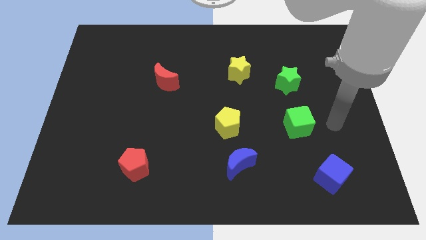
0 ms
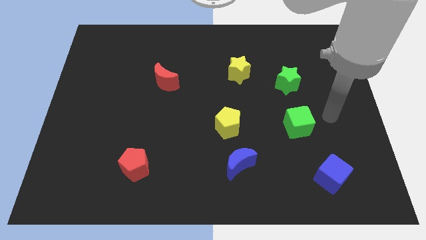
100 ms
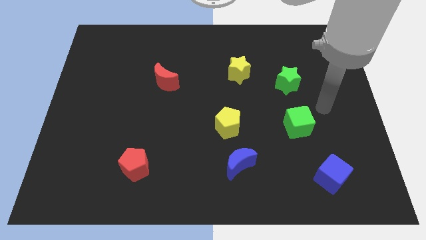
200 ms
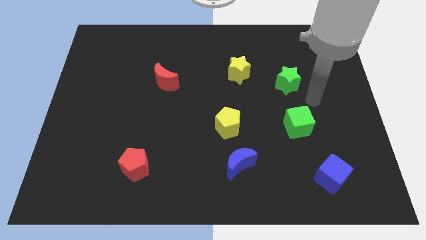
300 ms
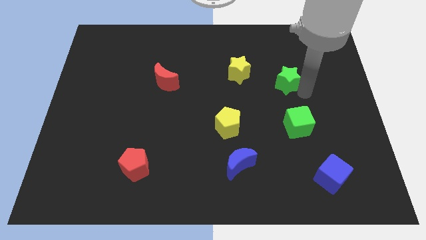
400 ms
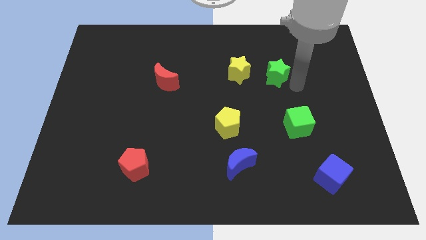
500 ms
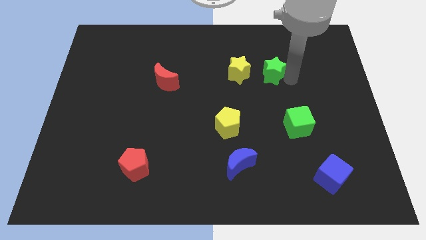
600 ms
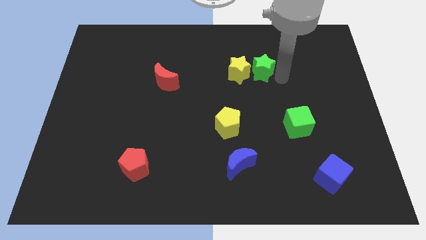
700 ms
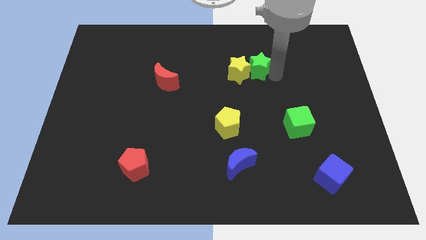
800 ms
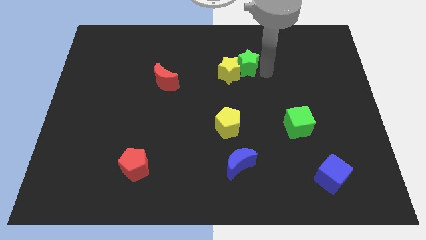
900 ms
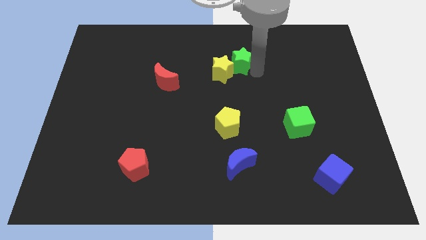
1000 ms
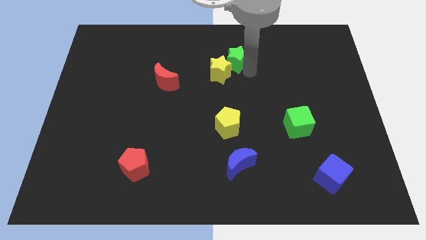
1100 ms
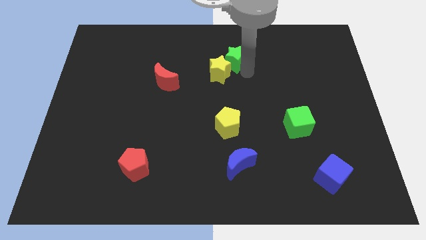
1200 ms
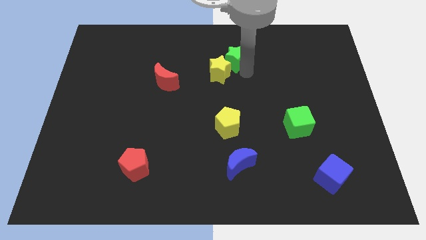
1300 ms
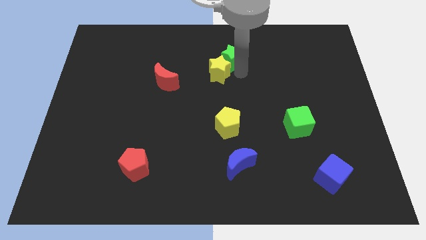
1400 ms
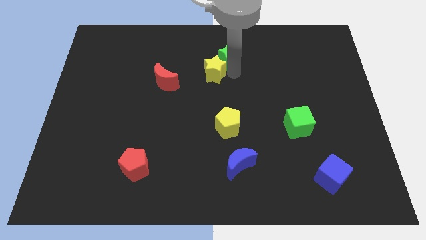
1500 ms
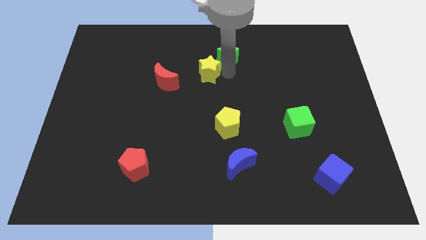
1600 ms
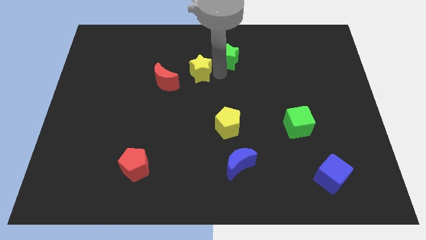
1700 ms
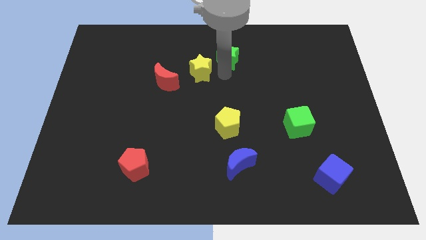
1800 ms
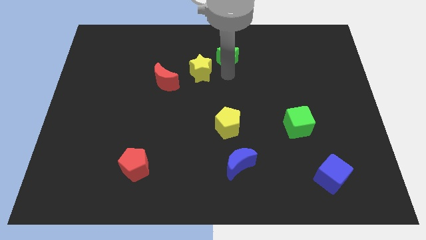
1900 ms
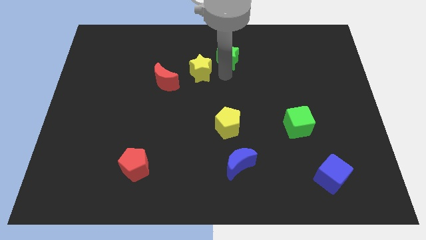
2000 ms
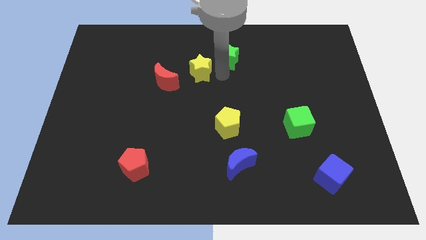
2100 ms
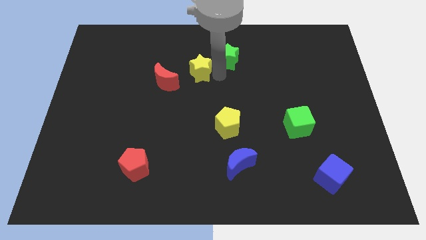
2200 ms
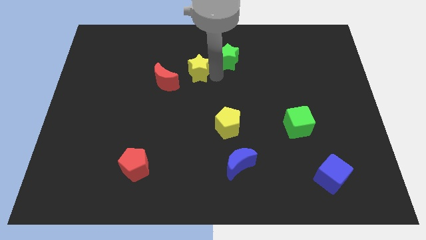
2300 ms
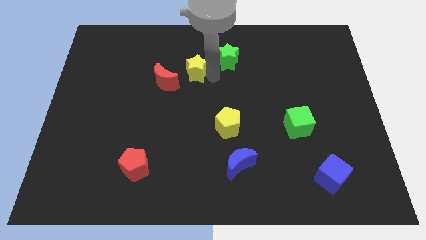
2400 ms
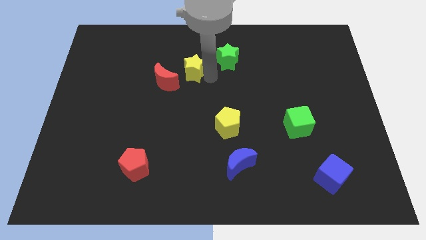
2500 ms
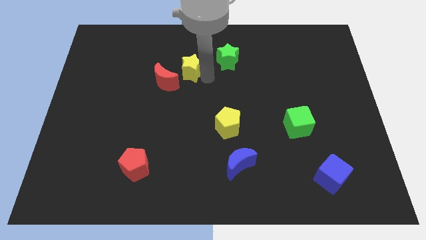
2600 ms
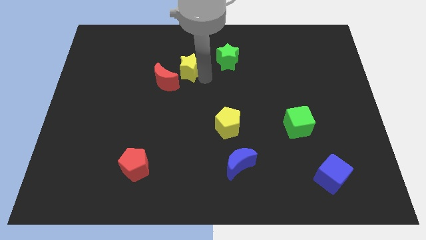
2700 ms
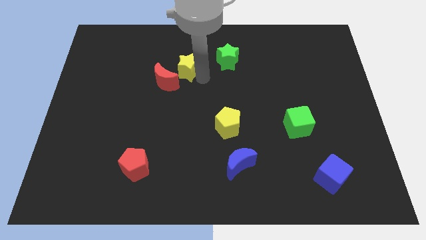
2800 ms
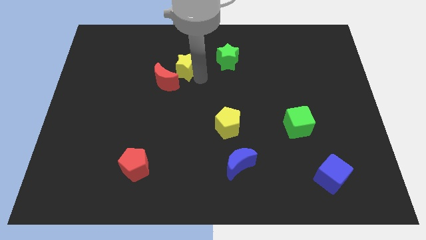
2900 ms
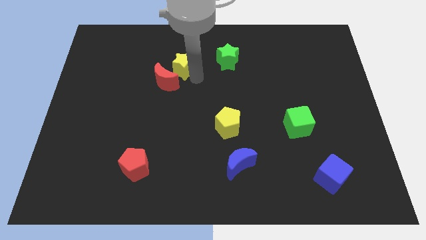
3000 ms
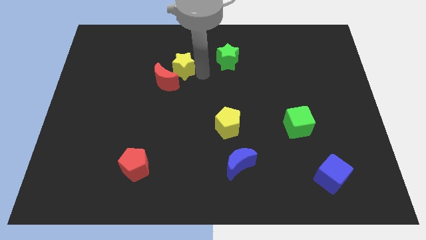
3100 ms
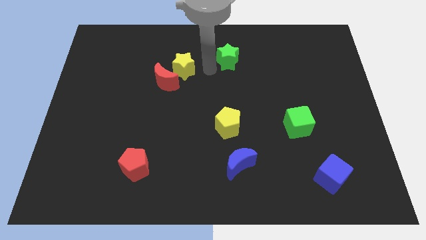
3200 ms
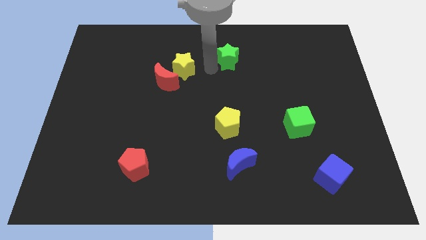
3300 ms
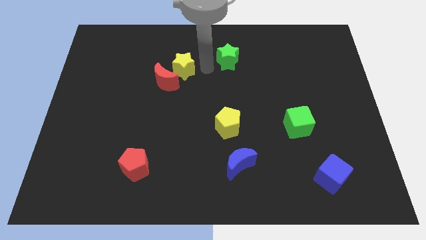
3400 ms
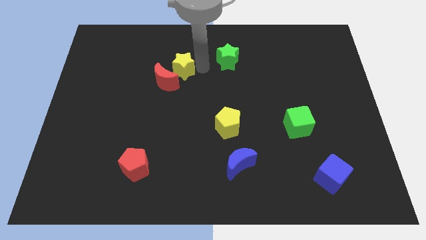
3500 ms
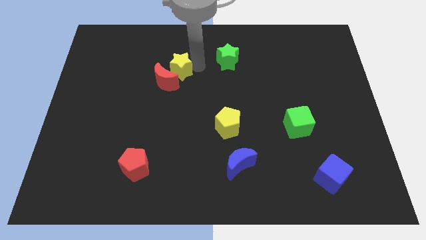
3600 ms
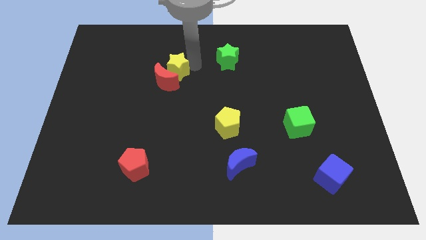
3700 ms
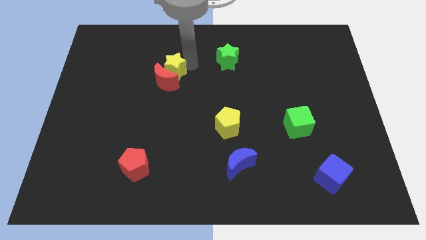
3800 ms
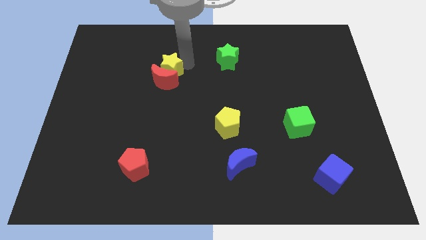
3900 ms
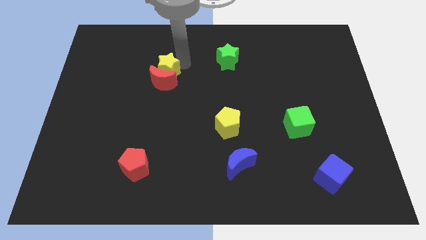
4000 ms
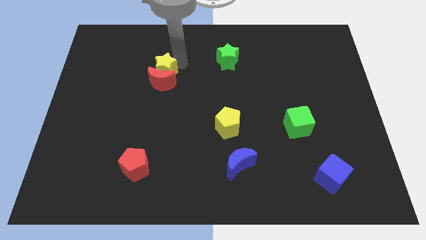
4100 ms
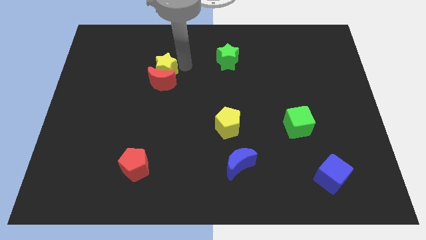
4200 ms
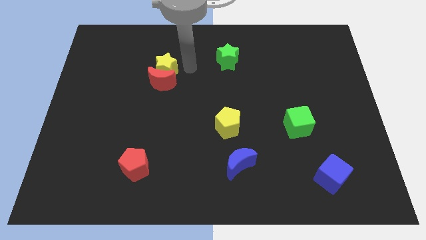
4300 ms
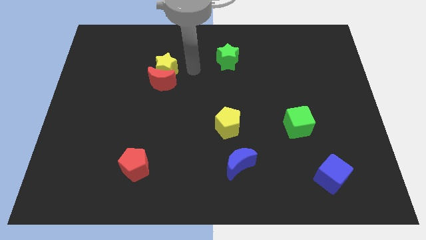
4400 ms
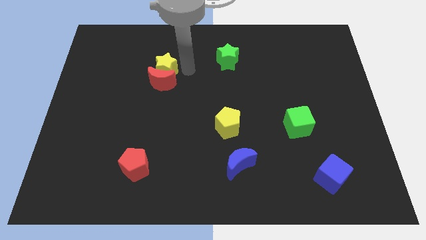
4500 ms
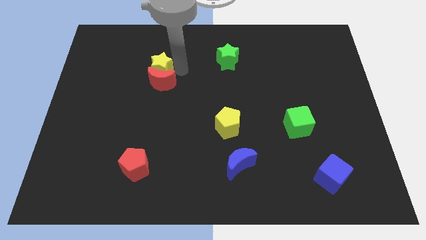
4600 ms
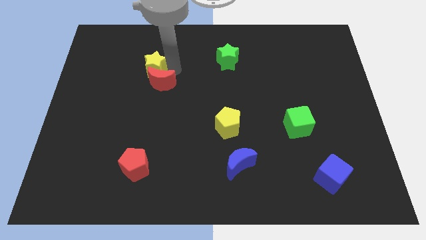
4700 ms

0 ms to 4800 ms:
push the yellow star to the left

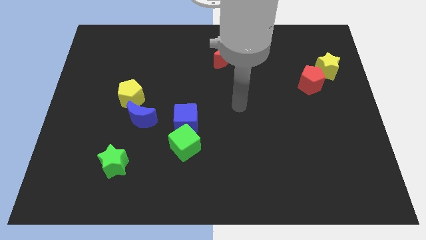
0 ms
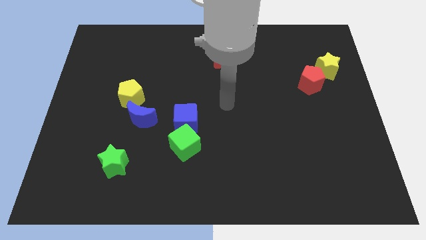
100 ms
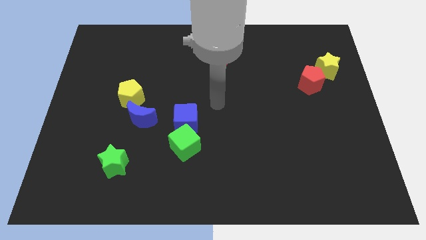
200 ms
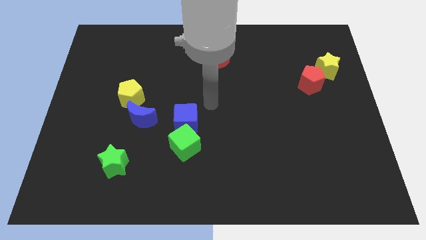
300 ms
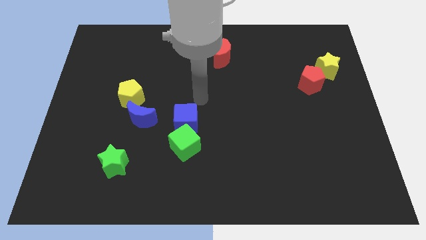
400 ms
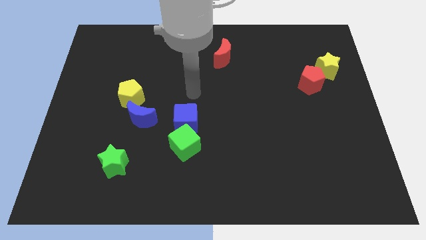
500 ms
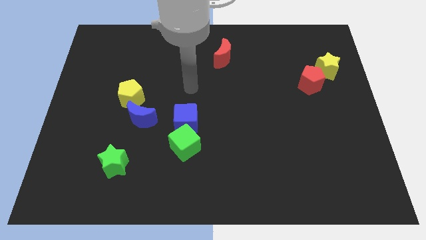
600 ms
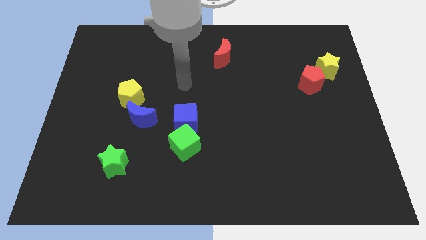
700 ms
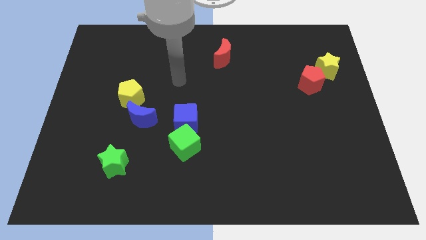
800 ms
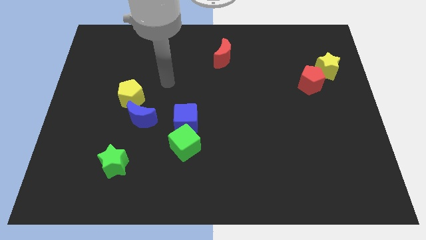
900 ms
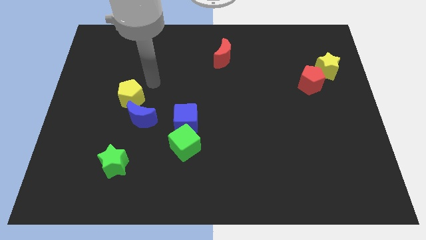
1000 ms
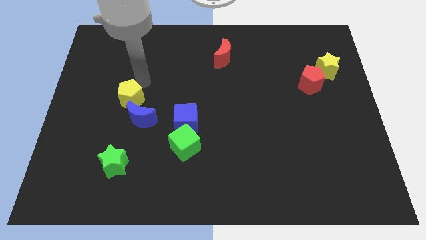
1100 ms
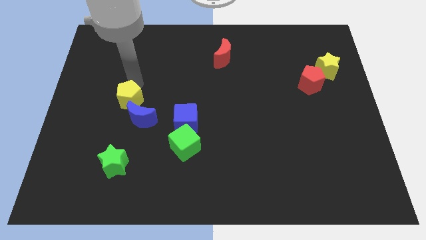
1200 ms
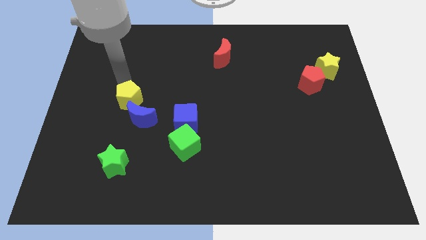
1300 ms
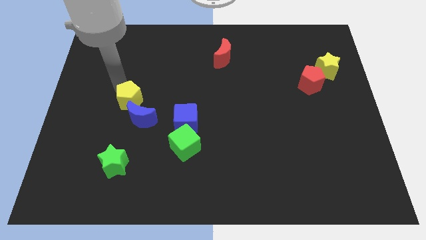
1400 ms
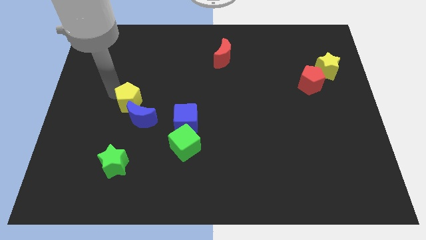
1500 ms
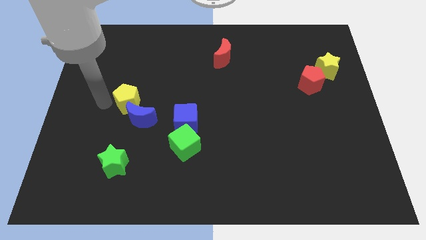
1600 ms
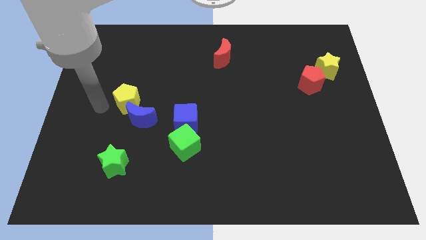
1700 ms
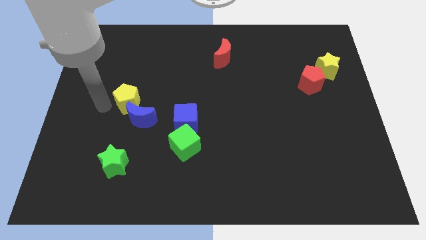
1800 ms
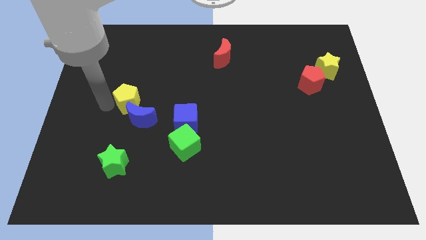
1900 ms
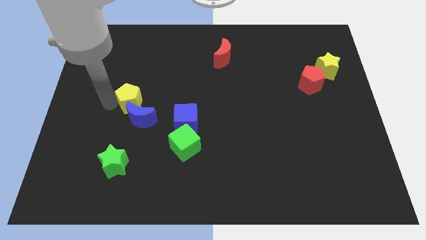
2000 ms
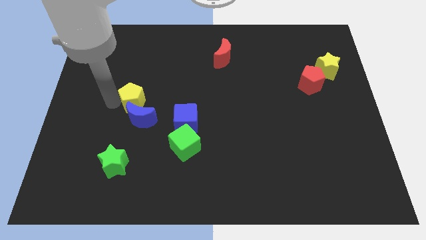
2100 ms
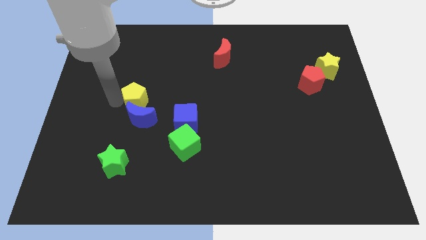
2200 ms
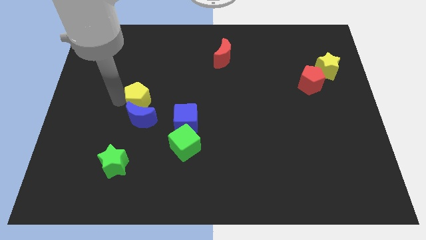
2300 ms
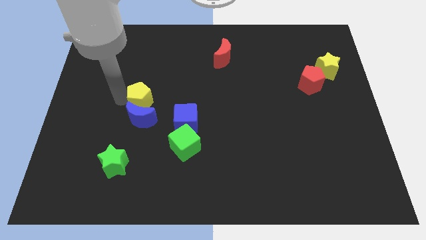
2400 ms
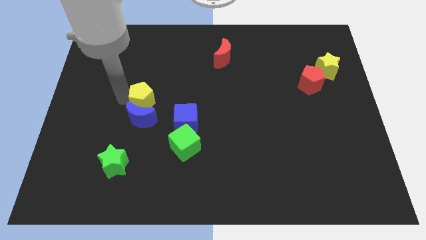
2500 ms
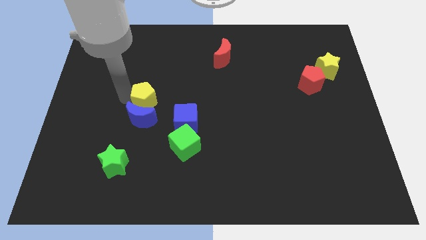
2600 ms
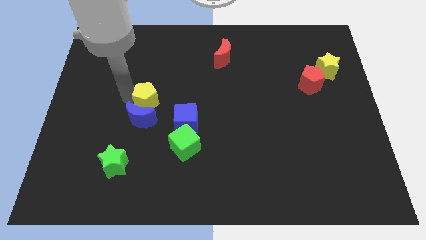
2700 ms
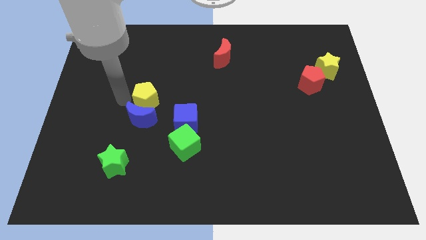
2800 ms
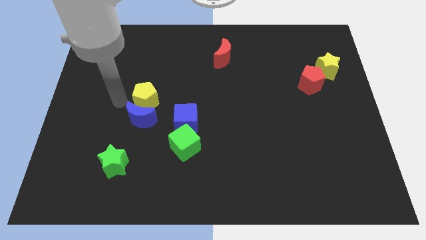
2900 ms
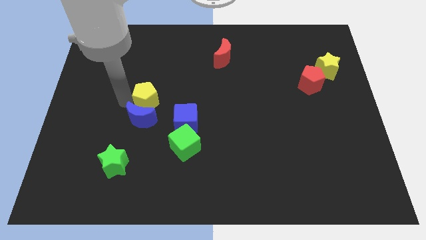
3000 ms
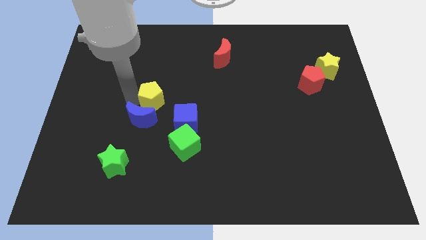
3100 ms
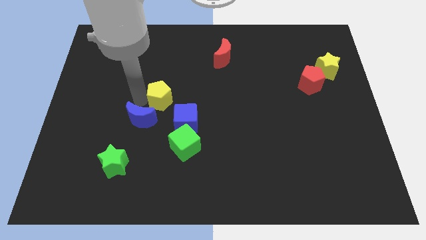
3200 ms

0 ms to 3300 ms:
push the yellow pentagon a bit to the right
